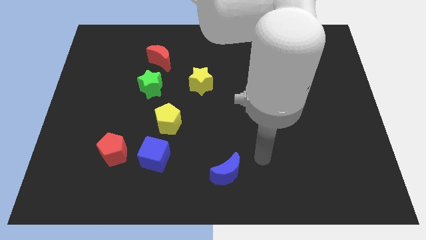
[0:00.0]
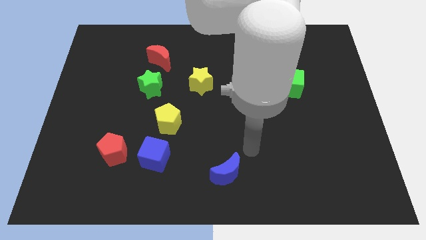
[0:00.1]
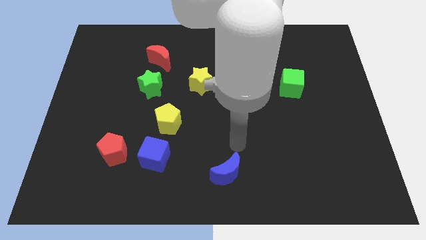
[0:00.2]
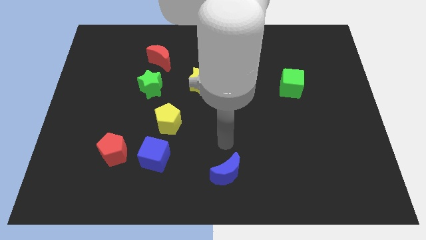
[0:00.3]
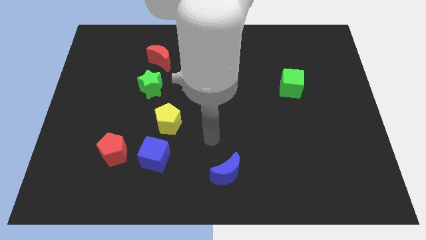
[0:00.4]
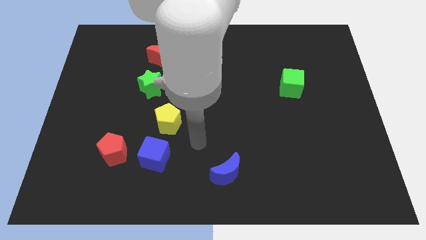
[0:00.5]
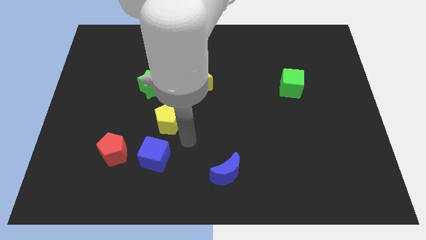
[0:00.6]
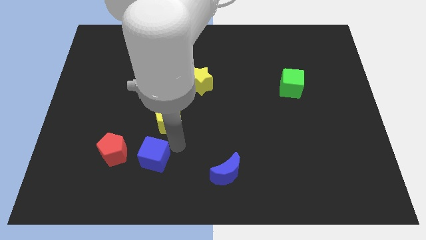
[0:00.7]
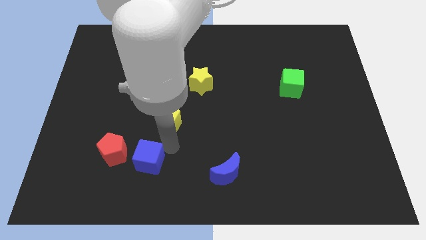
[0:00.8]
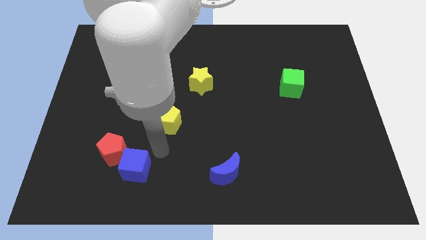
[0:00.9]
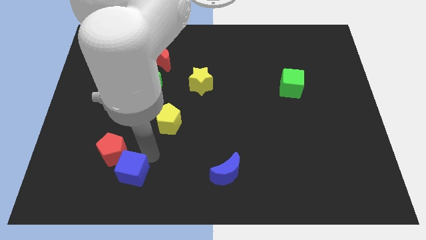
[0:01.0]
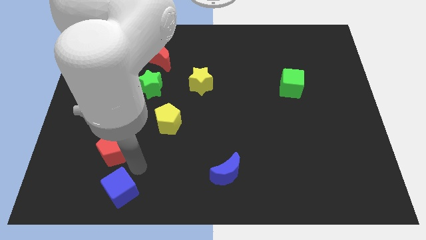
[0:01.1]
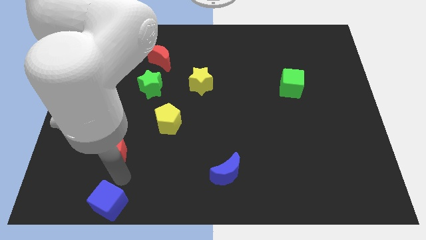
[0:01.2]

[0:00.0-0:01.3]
pull the red pentagon apart from the blue cube

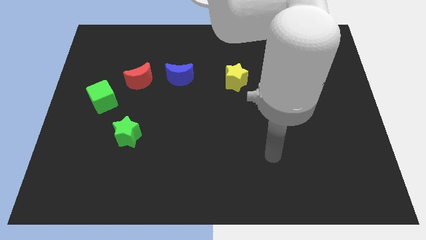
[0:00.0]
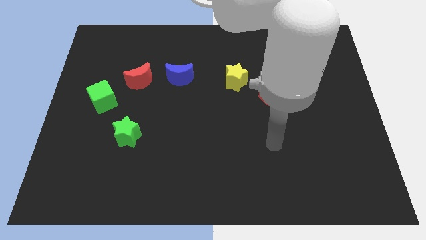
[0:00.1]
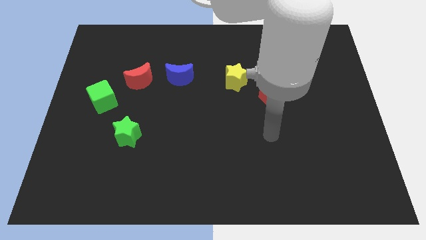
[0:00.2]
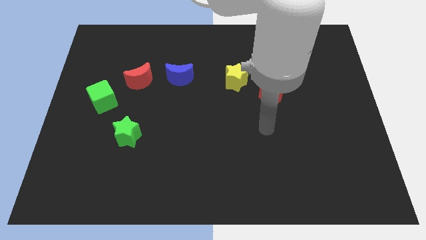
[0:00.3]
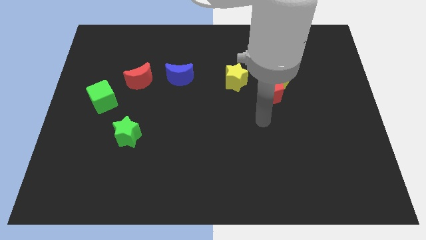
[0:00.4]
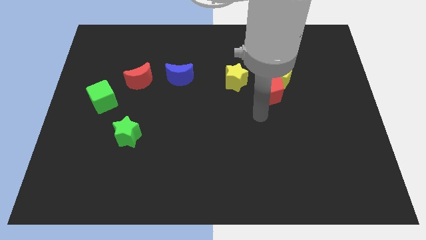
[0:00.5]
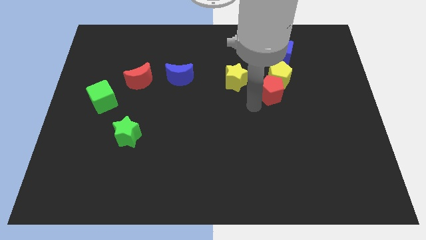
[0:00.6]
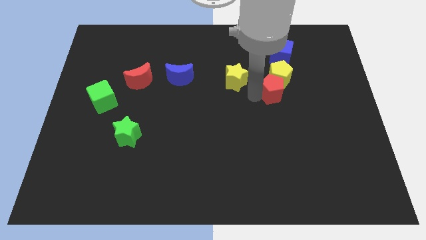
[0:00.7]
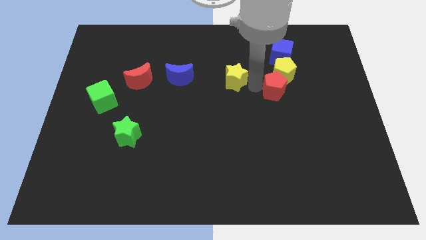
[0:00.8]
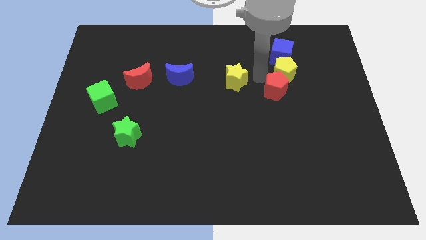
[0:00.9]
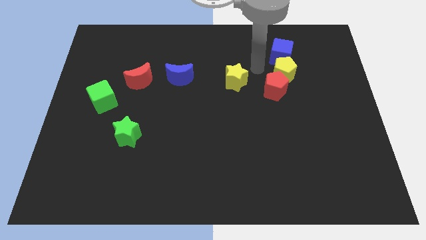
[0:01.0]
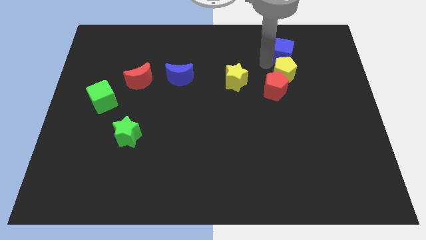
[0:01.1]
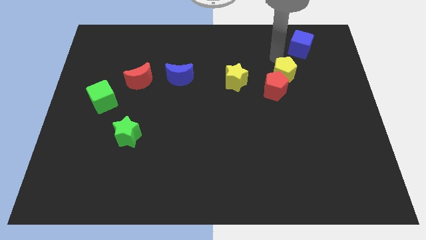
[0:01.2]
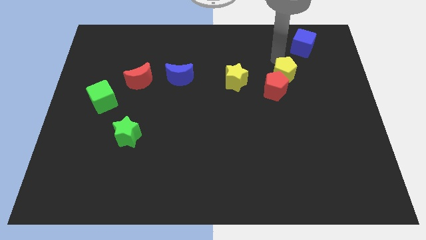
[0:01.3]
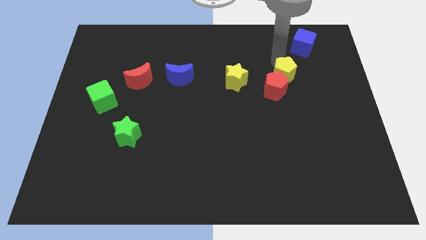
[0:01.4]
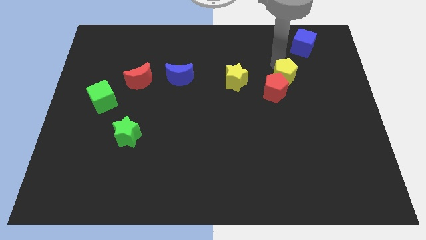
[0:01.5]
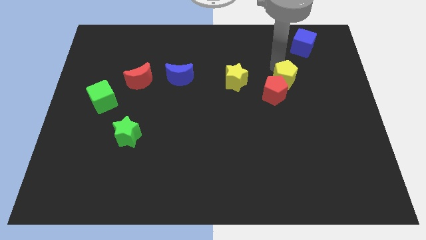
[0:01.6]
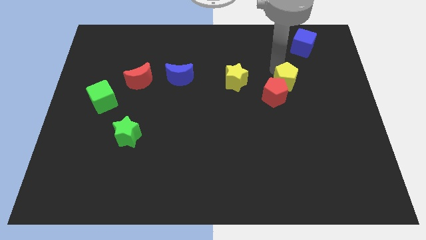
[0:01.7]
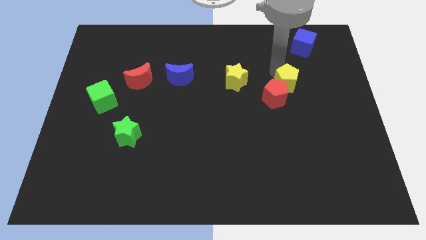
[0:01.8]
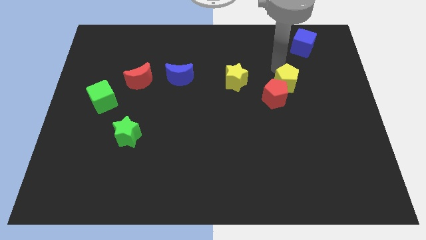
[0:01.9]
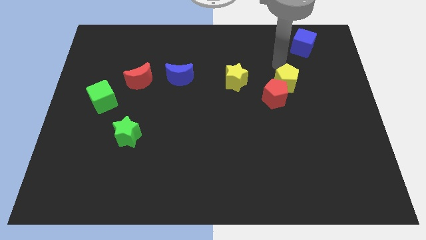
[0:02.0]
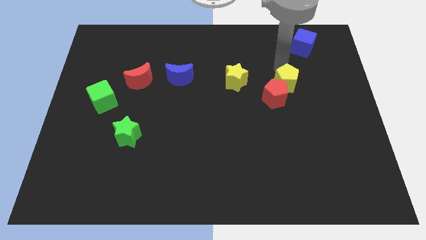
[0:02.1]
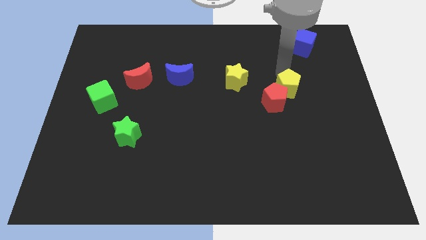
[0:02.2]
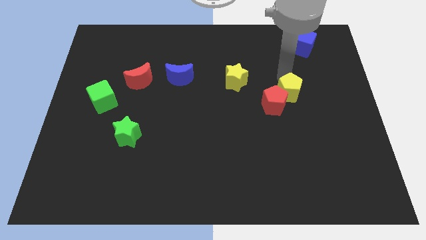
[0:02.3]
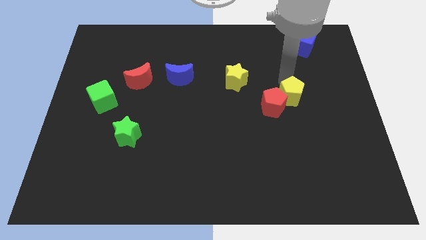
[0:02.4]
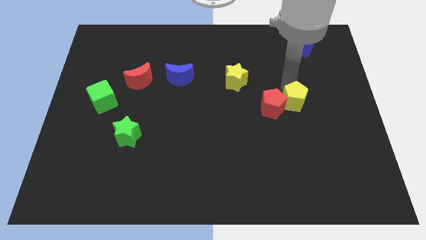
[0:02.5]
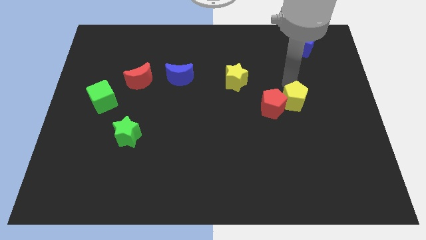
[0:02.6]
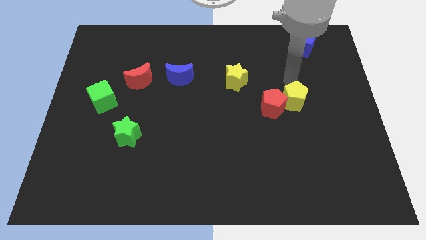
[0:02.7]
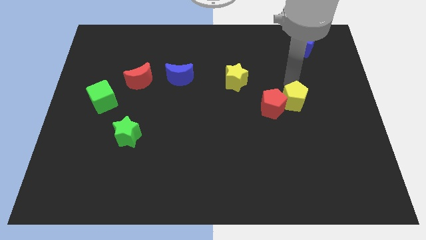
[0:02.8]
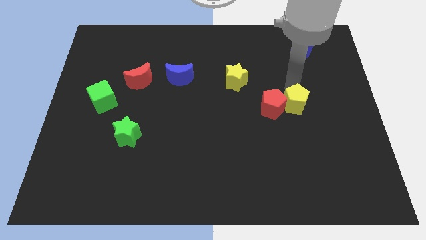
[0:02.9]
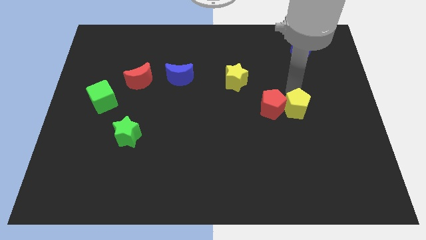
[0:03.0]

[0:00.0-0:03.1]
pull the yellow pentagon apart from the red pentagon and blue cube

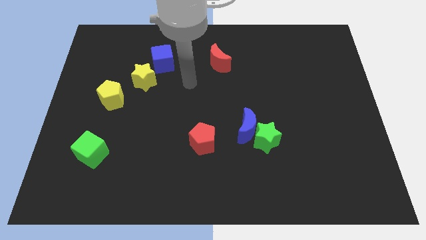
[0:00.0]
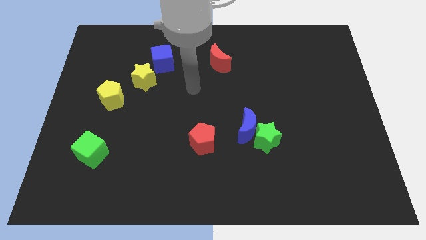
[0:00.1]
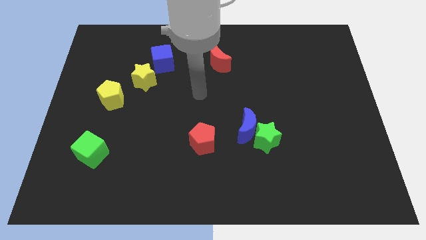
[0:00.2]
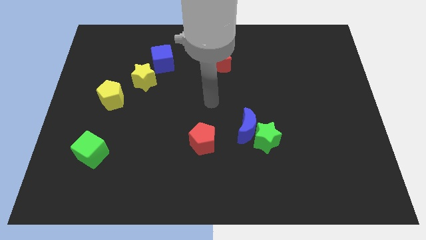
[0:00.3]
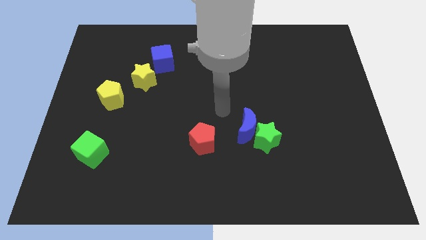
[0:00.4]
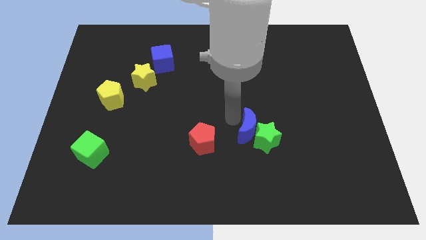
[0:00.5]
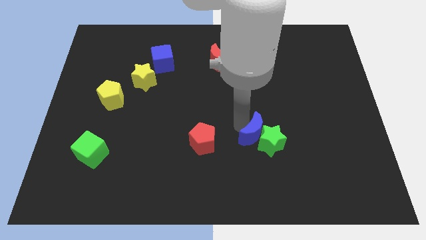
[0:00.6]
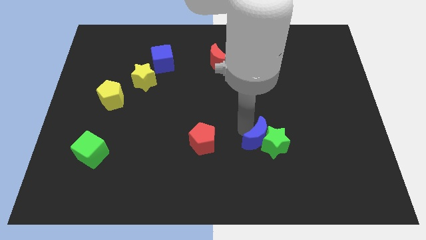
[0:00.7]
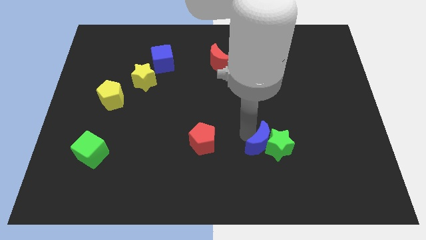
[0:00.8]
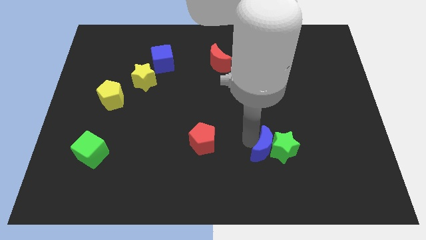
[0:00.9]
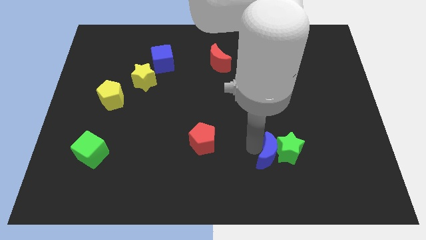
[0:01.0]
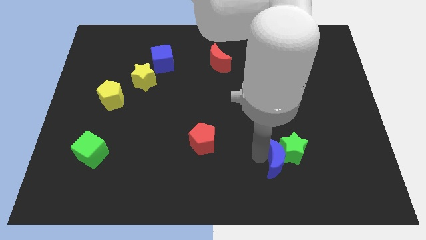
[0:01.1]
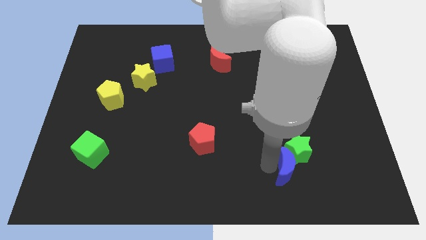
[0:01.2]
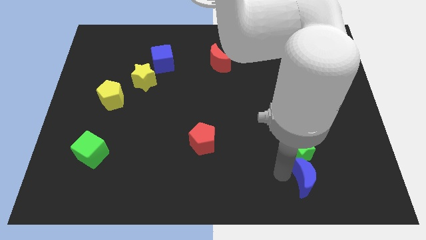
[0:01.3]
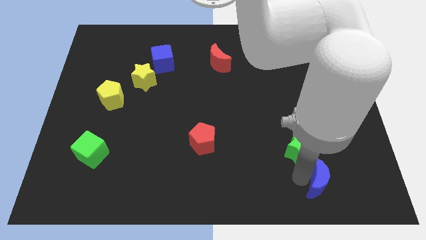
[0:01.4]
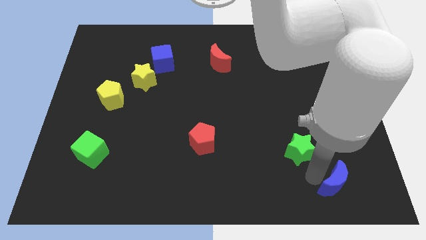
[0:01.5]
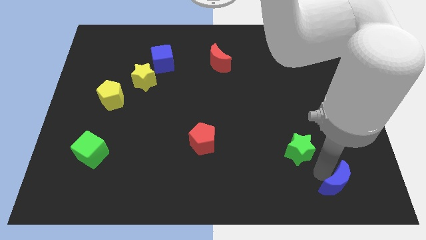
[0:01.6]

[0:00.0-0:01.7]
move the green star away from the blue moon

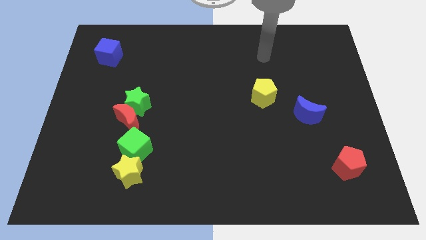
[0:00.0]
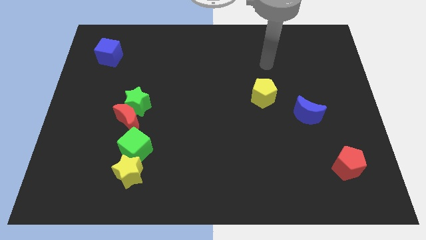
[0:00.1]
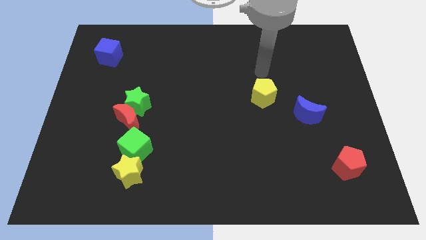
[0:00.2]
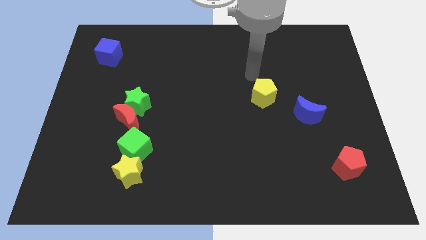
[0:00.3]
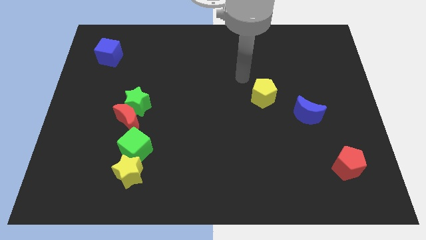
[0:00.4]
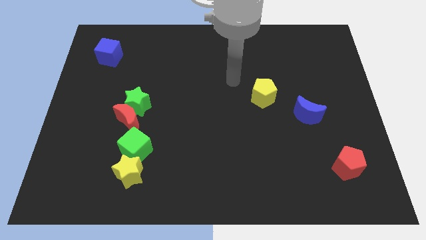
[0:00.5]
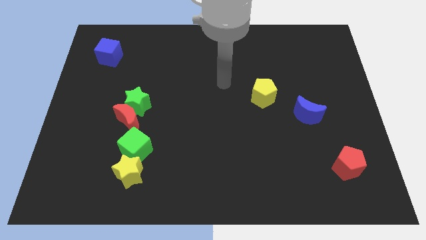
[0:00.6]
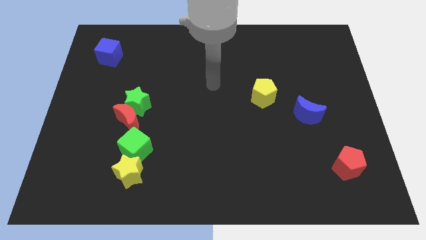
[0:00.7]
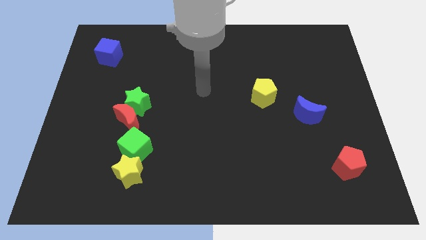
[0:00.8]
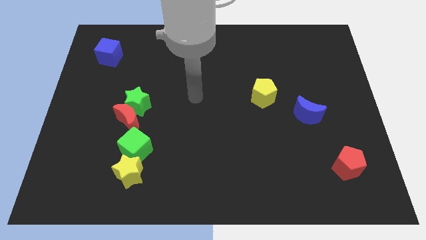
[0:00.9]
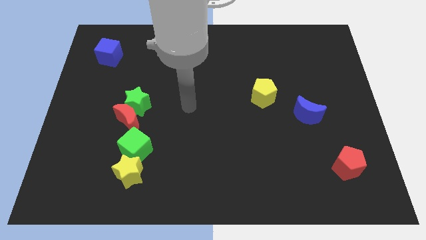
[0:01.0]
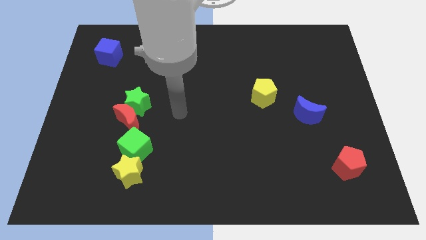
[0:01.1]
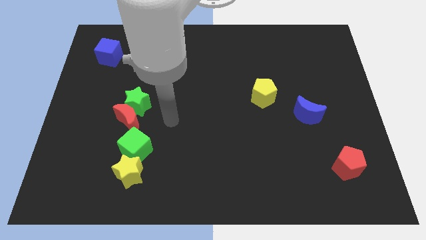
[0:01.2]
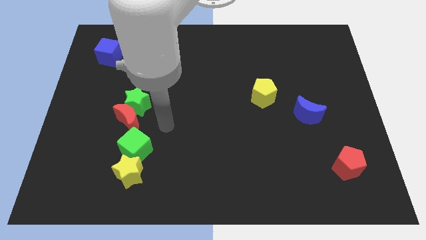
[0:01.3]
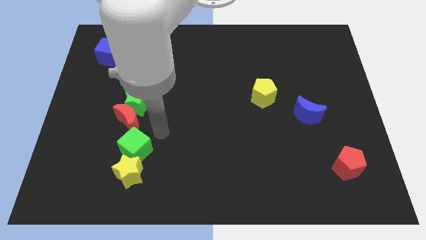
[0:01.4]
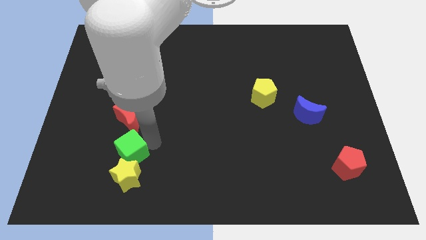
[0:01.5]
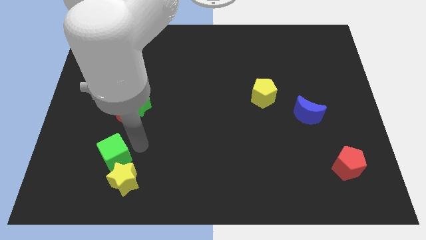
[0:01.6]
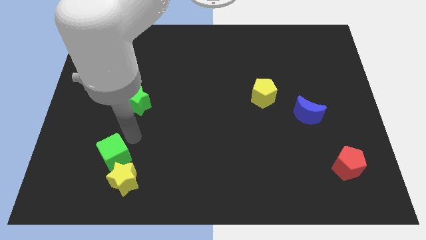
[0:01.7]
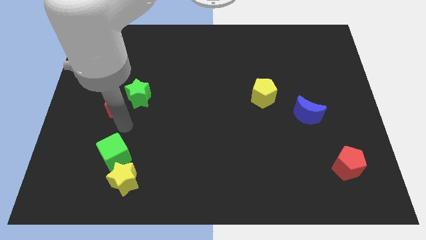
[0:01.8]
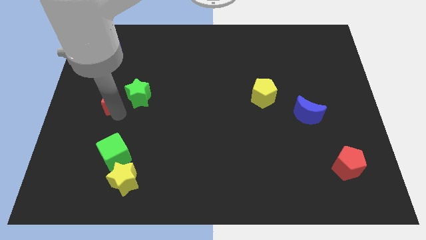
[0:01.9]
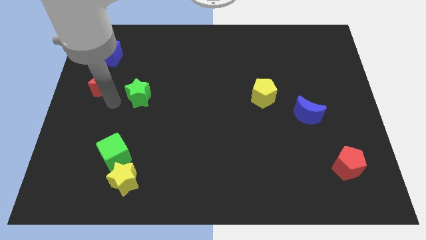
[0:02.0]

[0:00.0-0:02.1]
separate the green star from the red moon

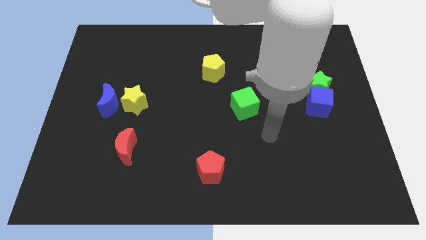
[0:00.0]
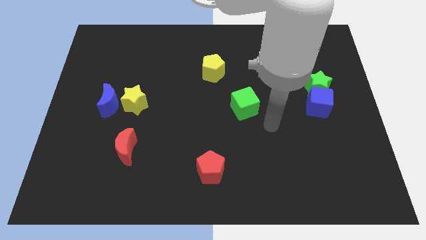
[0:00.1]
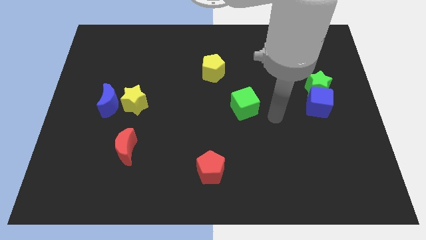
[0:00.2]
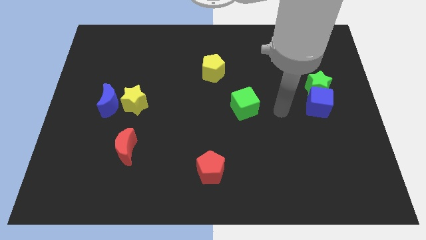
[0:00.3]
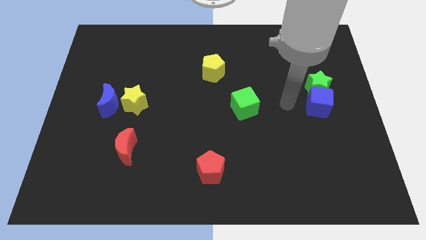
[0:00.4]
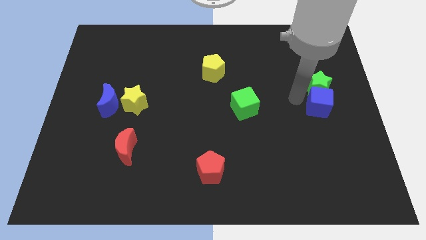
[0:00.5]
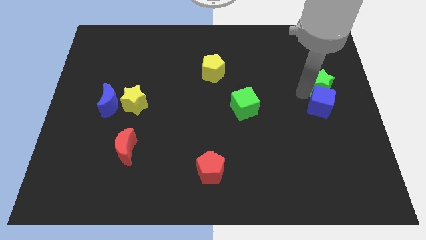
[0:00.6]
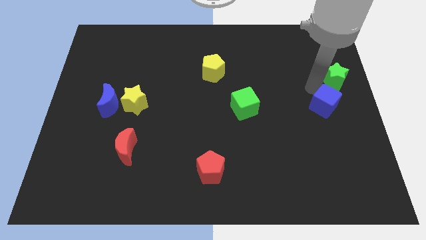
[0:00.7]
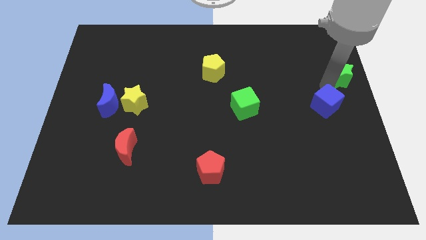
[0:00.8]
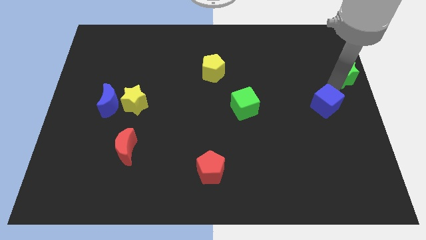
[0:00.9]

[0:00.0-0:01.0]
move the blue cube away from the green star

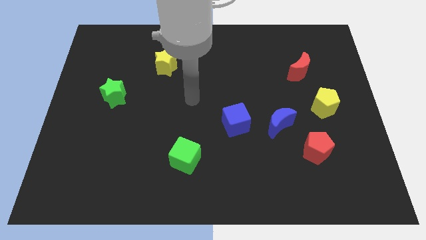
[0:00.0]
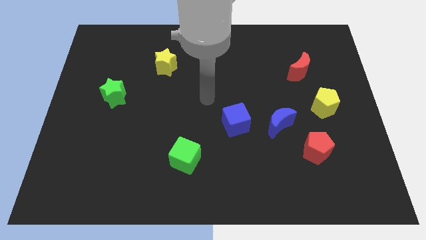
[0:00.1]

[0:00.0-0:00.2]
pull the blue cube apart from the blue moon
